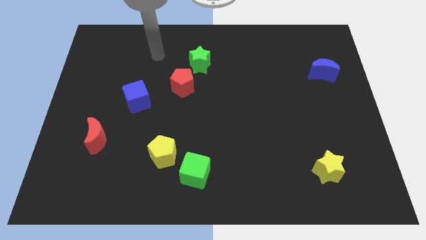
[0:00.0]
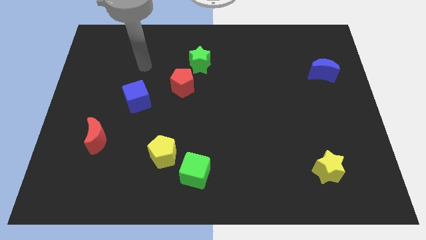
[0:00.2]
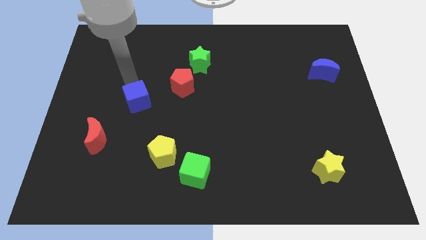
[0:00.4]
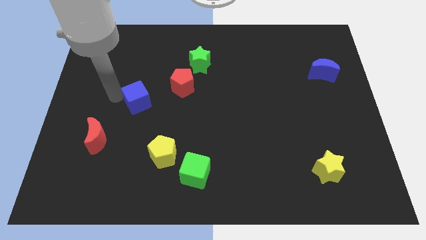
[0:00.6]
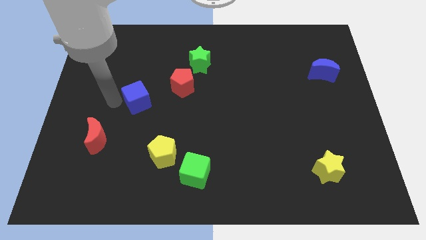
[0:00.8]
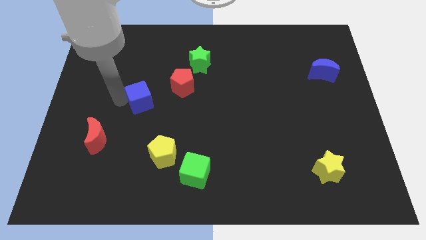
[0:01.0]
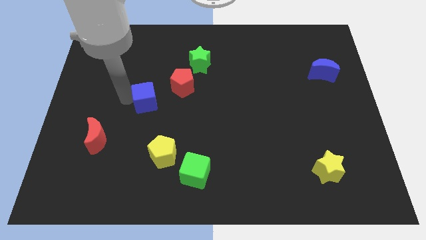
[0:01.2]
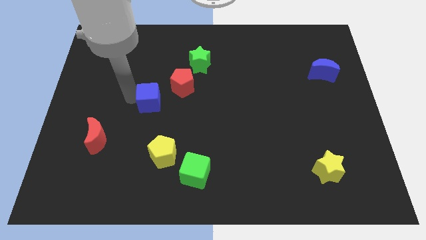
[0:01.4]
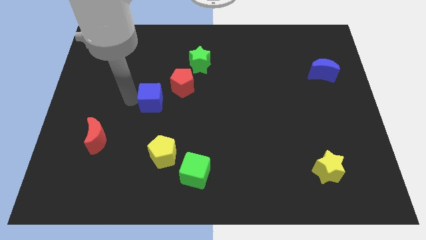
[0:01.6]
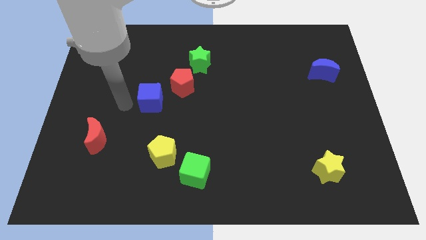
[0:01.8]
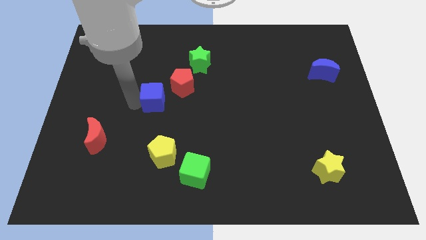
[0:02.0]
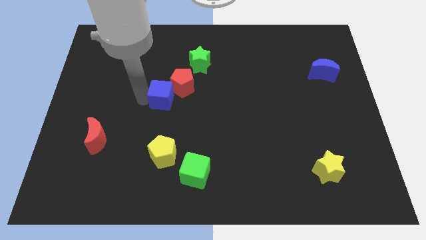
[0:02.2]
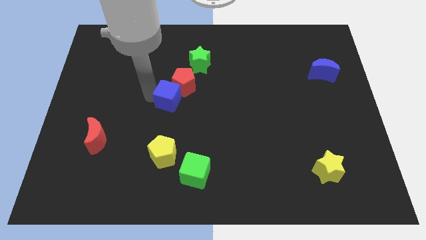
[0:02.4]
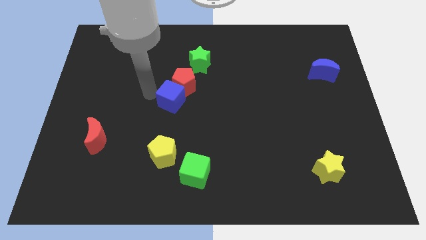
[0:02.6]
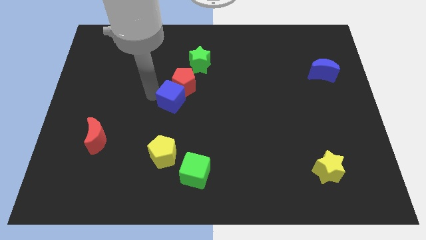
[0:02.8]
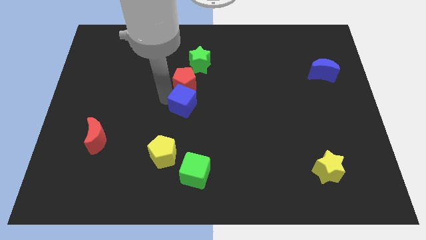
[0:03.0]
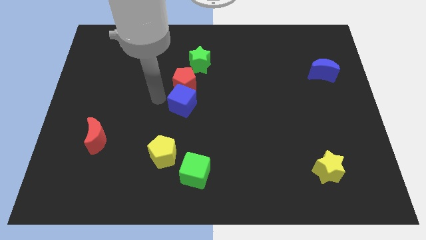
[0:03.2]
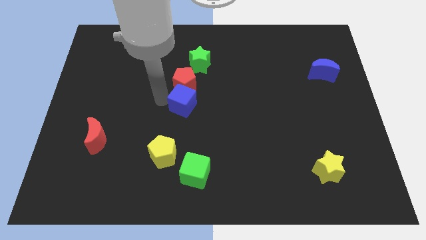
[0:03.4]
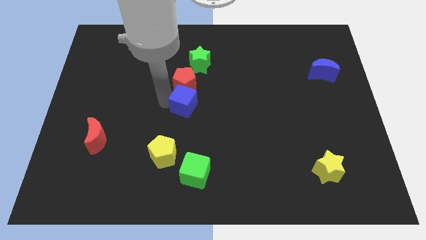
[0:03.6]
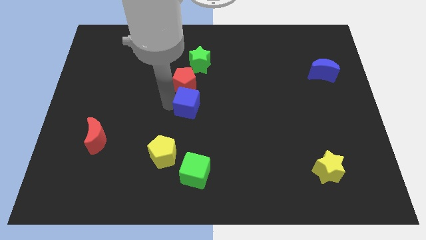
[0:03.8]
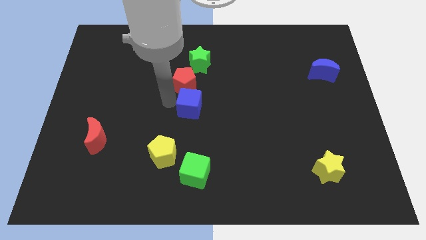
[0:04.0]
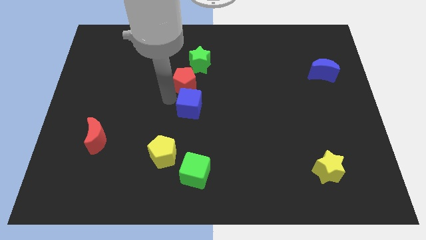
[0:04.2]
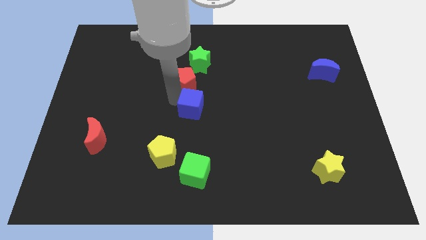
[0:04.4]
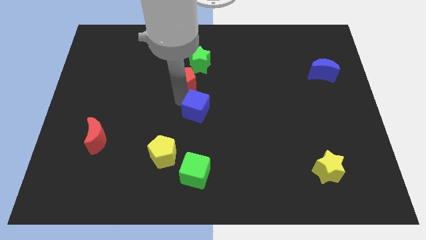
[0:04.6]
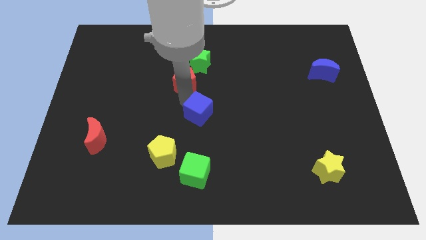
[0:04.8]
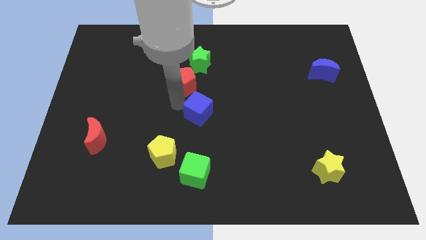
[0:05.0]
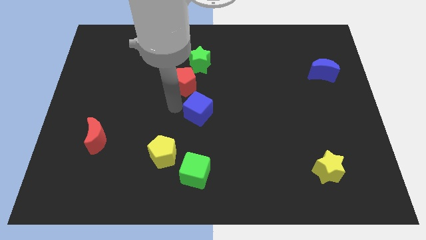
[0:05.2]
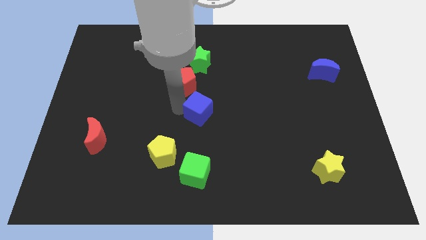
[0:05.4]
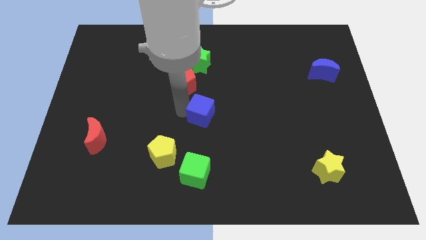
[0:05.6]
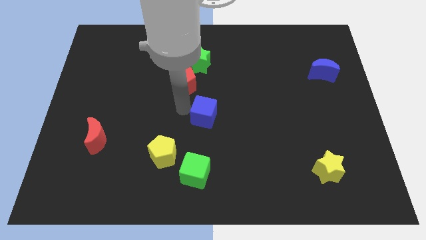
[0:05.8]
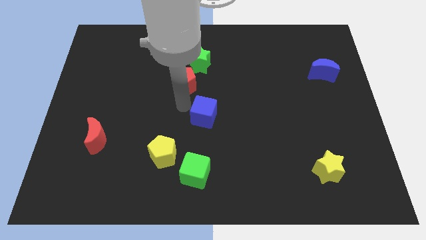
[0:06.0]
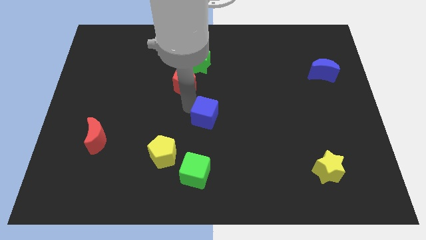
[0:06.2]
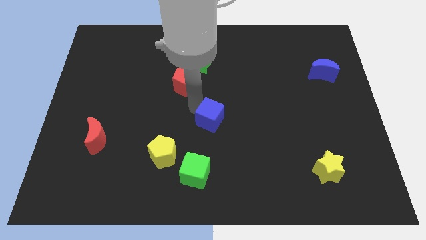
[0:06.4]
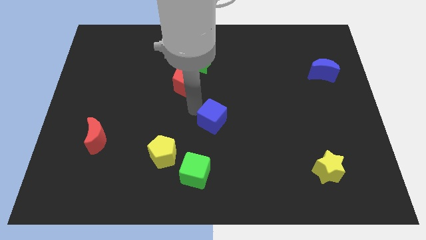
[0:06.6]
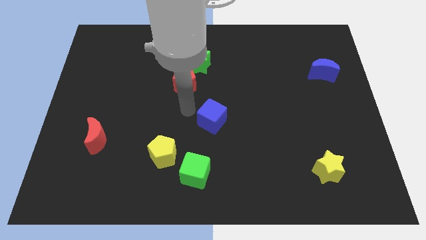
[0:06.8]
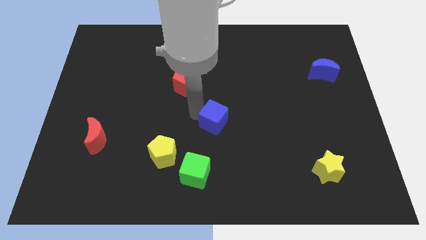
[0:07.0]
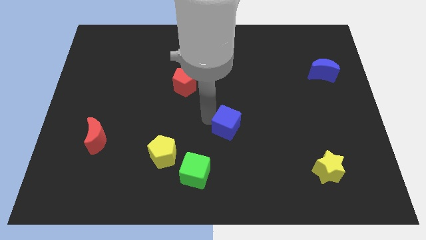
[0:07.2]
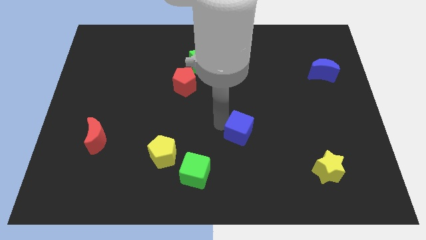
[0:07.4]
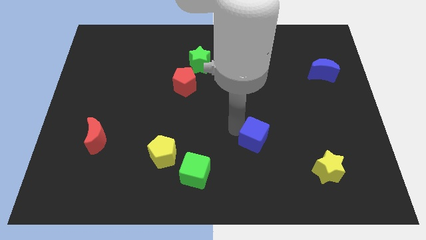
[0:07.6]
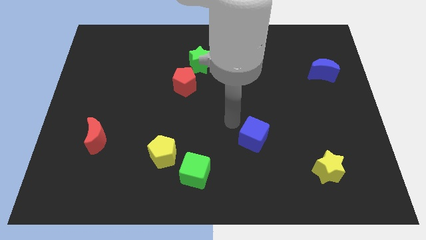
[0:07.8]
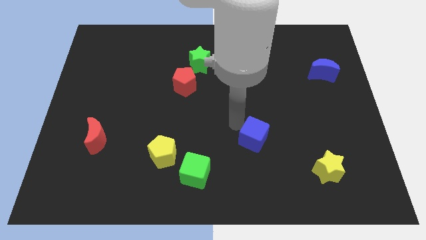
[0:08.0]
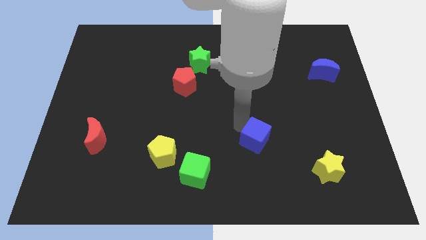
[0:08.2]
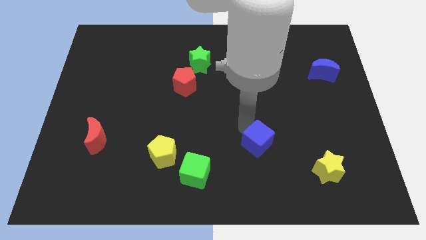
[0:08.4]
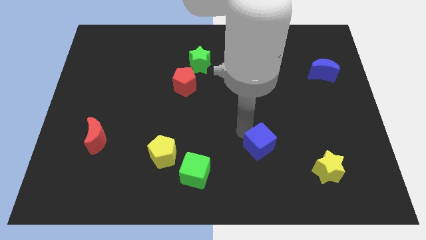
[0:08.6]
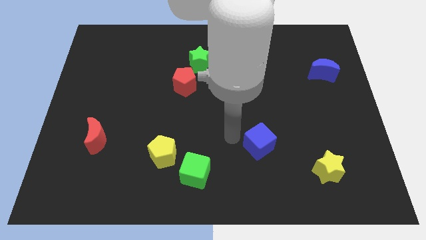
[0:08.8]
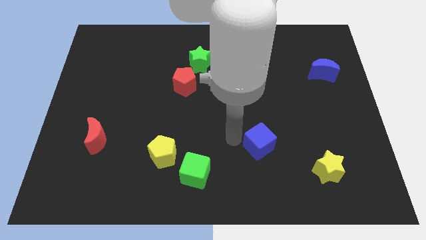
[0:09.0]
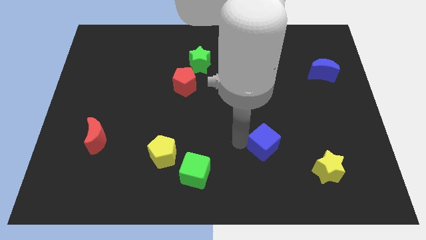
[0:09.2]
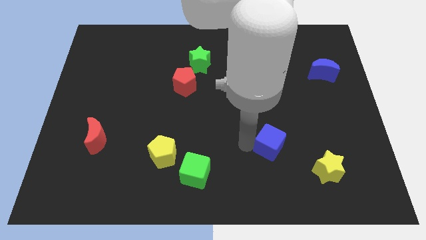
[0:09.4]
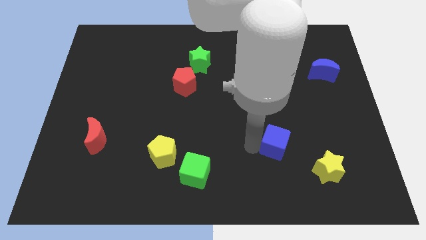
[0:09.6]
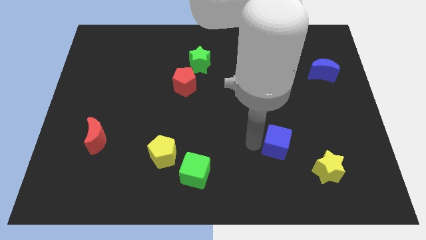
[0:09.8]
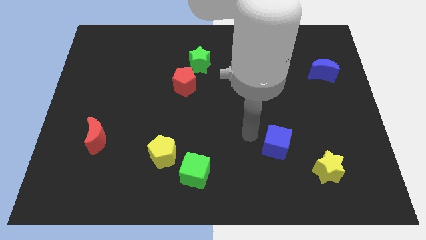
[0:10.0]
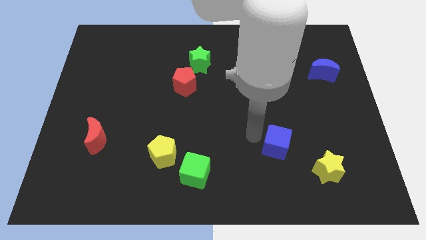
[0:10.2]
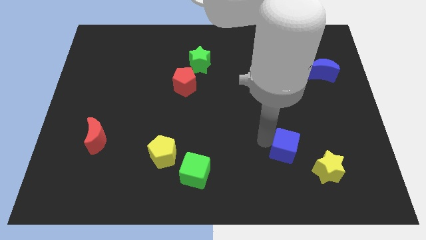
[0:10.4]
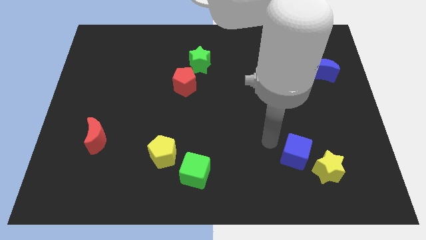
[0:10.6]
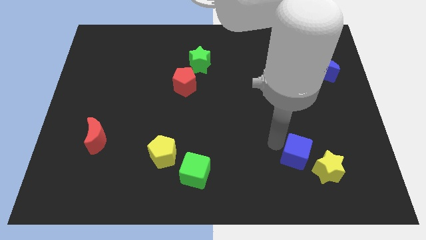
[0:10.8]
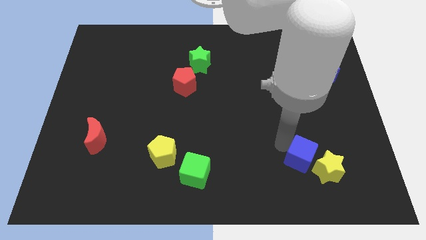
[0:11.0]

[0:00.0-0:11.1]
slide the blue cube close to the yellow star

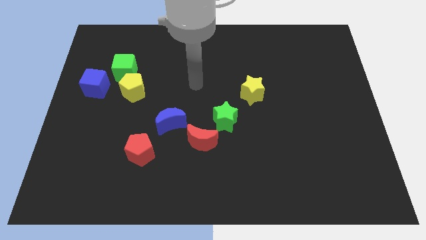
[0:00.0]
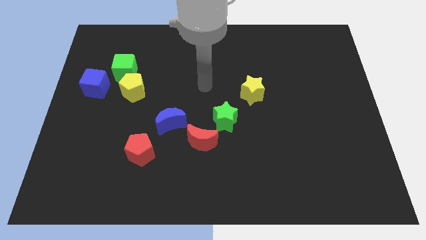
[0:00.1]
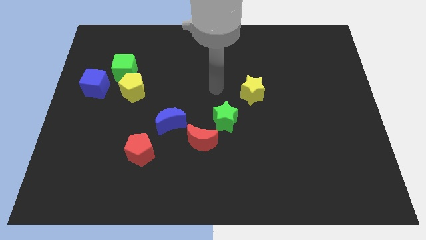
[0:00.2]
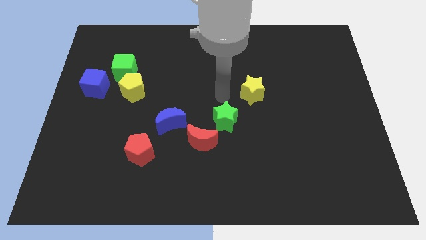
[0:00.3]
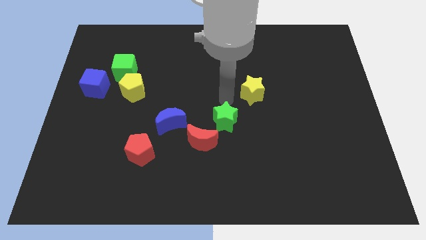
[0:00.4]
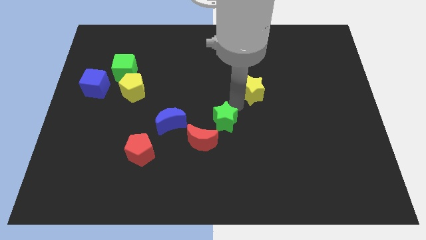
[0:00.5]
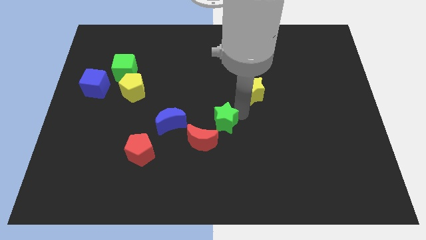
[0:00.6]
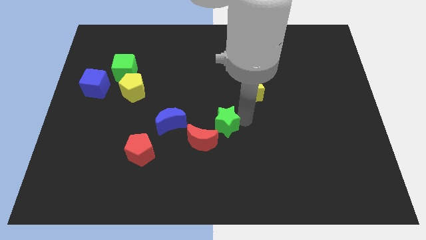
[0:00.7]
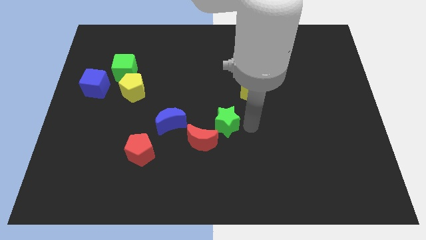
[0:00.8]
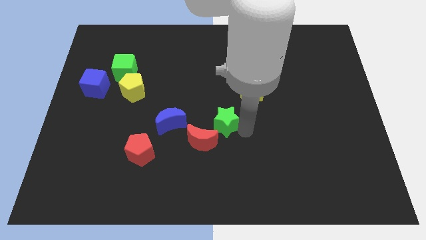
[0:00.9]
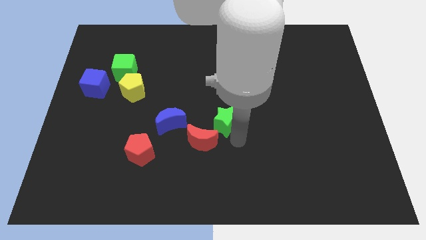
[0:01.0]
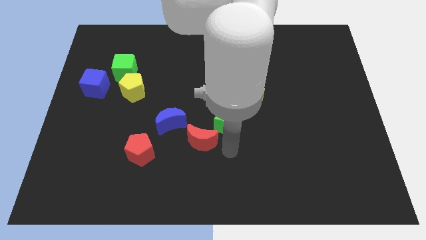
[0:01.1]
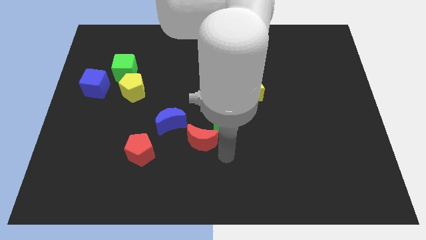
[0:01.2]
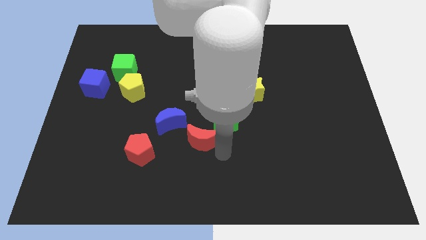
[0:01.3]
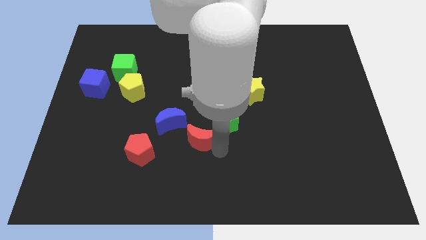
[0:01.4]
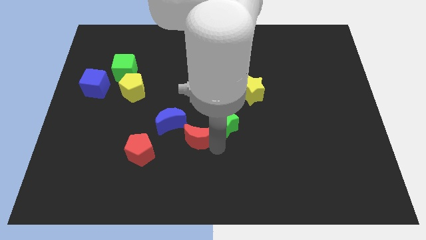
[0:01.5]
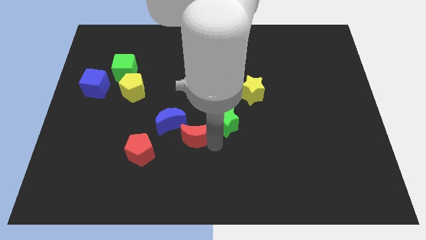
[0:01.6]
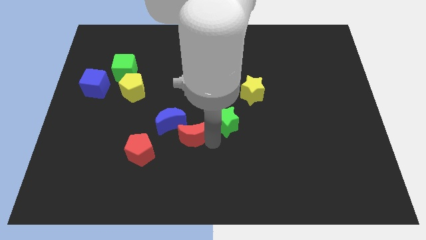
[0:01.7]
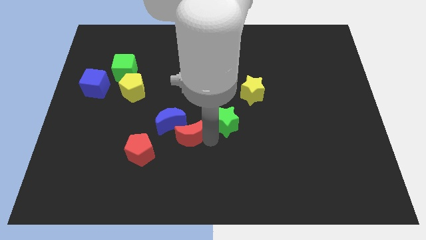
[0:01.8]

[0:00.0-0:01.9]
move the red moon to the blue moon
